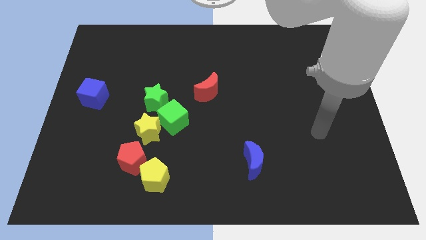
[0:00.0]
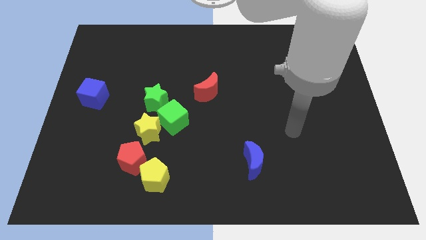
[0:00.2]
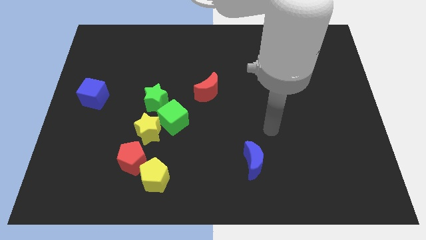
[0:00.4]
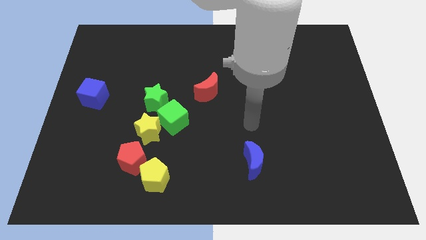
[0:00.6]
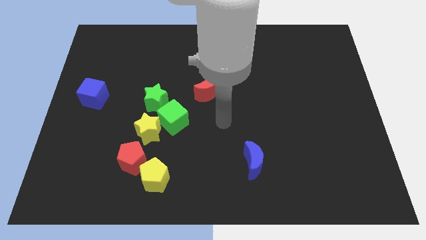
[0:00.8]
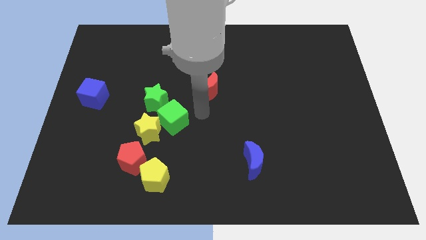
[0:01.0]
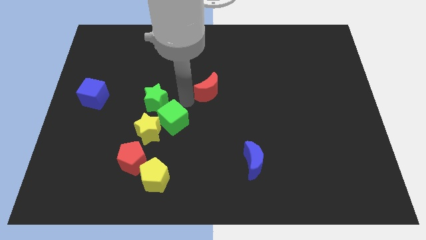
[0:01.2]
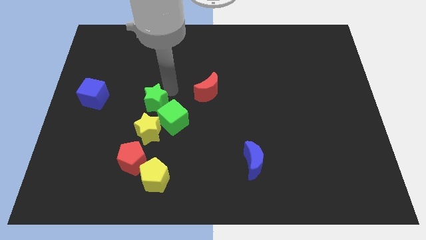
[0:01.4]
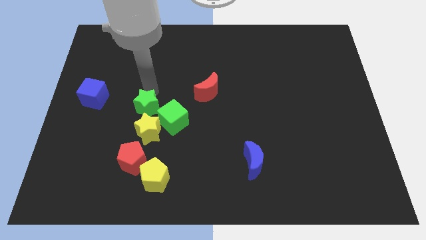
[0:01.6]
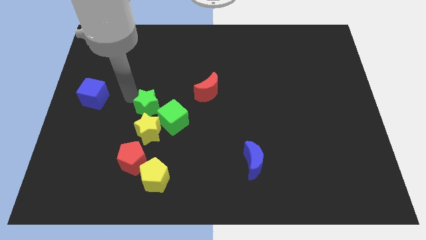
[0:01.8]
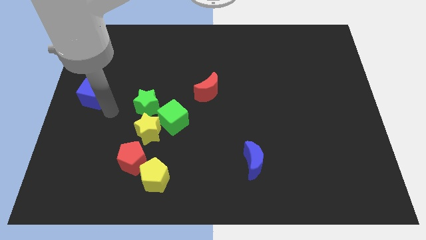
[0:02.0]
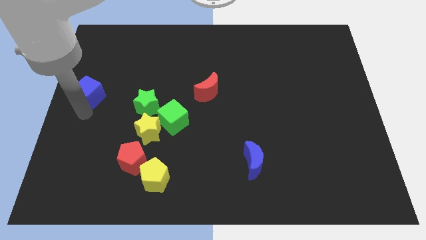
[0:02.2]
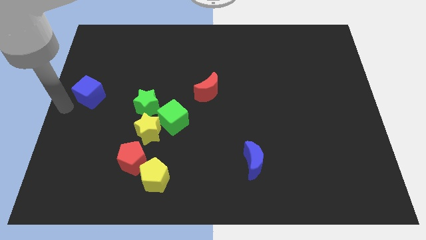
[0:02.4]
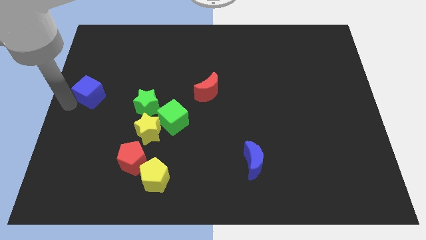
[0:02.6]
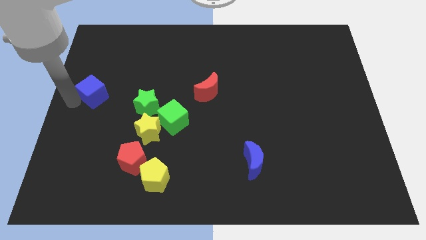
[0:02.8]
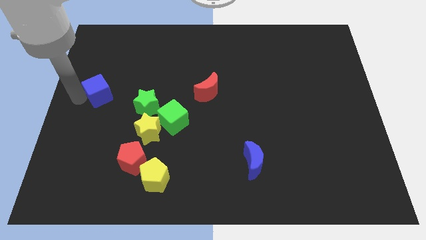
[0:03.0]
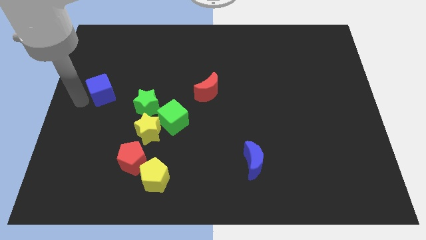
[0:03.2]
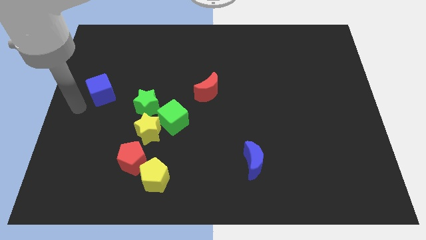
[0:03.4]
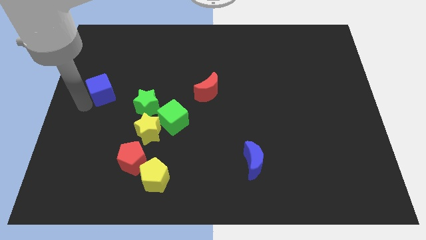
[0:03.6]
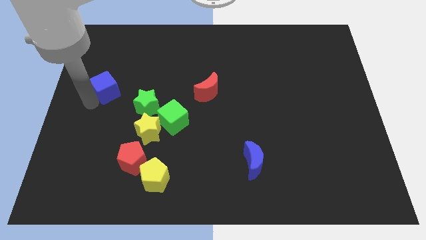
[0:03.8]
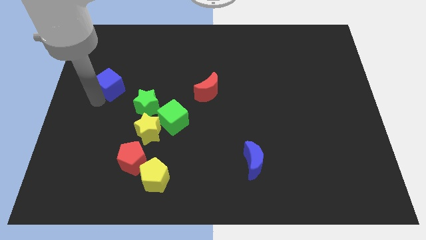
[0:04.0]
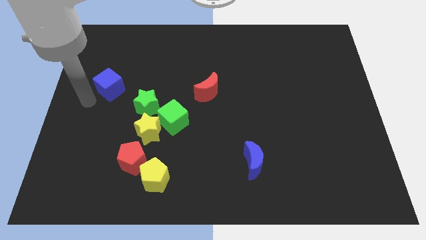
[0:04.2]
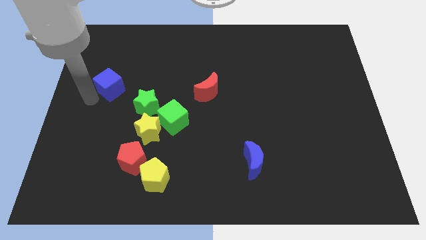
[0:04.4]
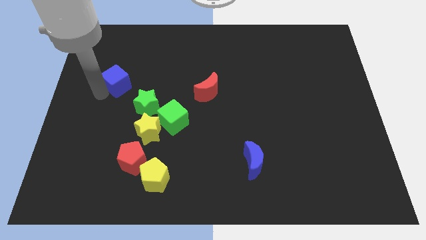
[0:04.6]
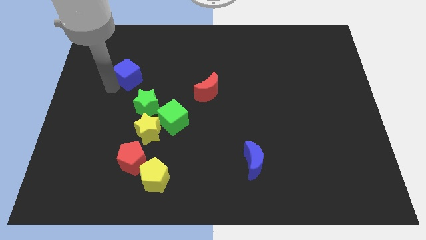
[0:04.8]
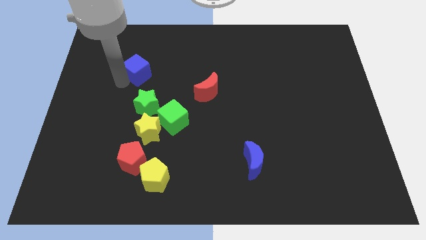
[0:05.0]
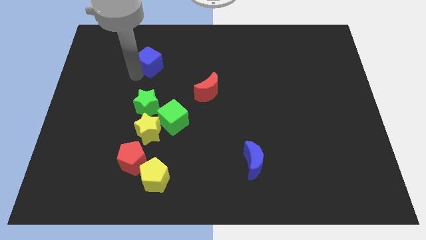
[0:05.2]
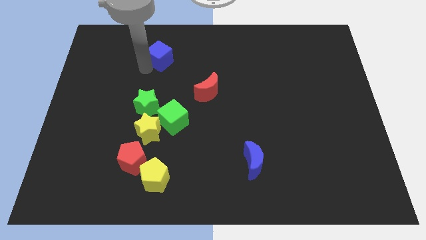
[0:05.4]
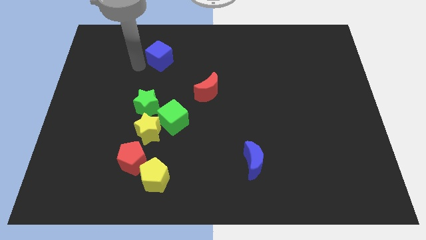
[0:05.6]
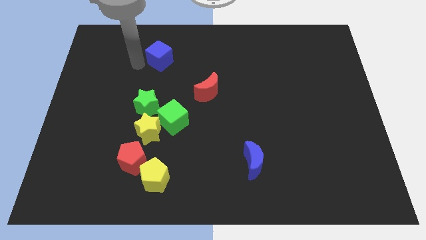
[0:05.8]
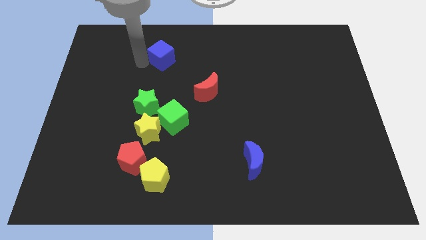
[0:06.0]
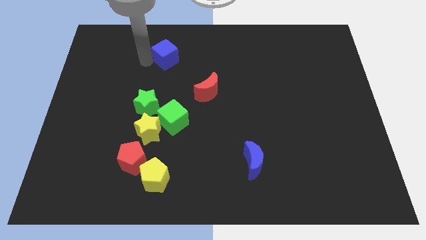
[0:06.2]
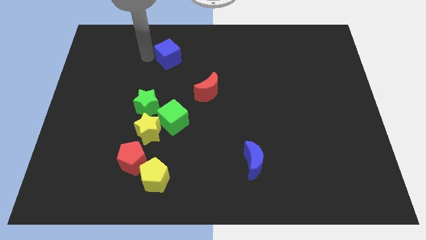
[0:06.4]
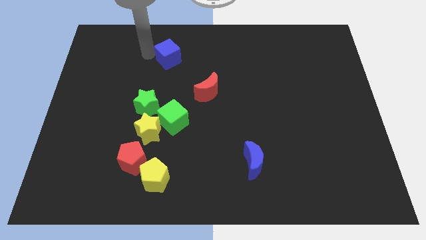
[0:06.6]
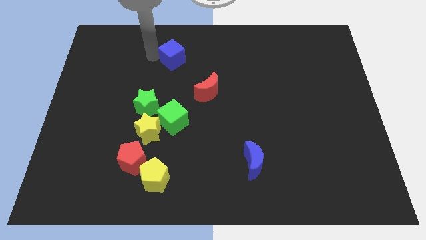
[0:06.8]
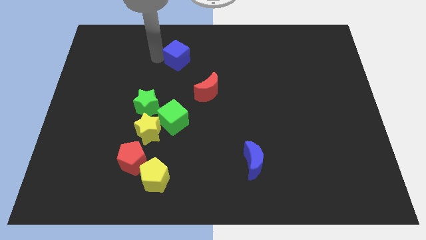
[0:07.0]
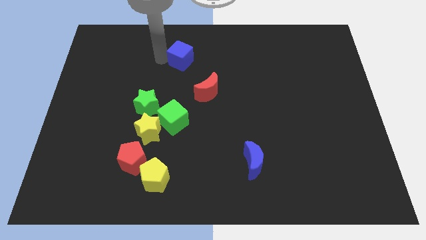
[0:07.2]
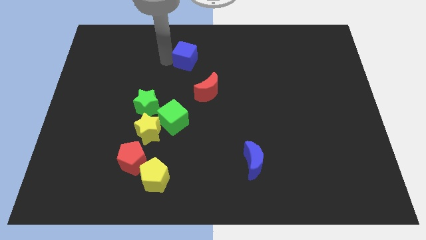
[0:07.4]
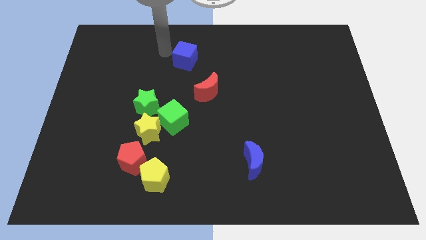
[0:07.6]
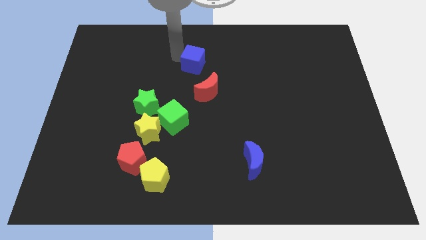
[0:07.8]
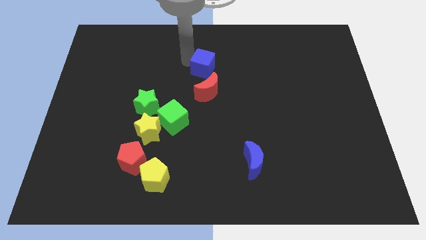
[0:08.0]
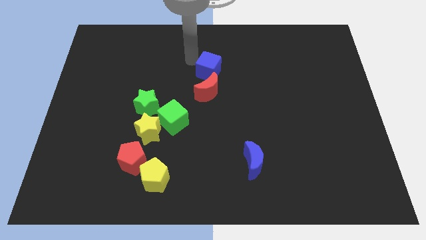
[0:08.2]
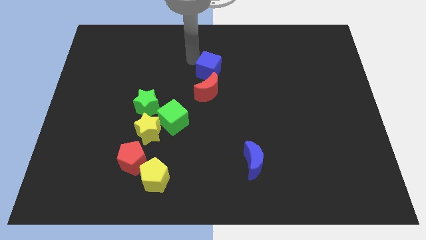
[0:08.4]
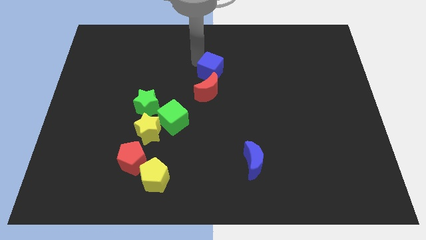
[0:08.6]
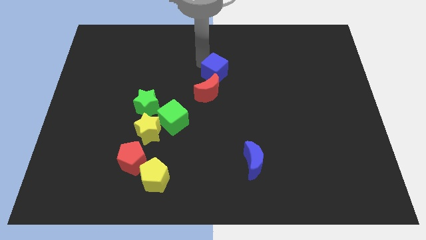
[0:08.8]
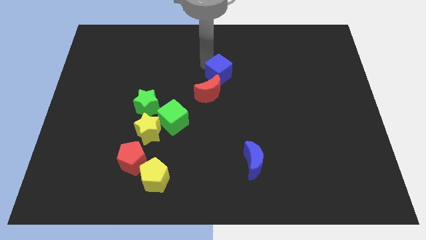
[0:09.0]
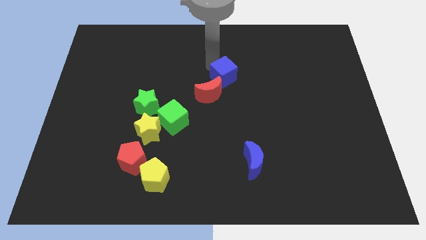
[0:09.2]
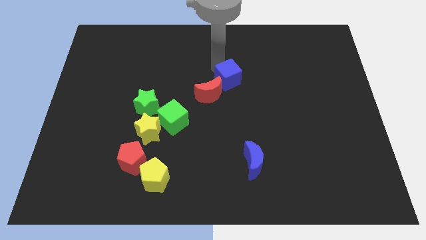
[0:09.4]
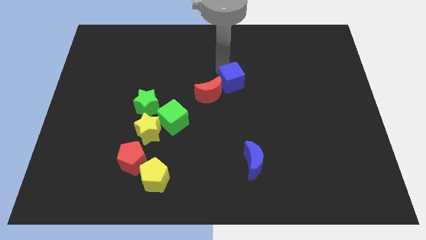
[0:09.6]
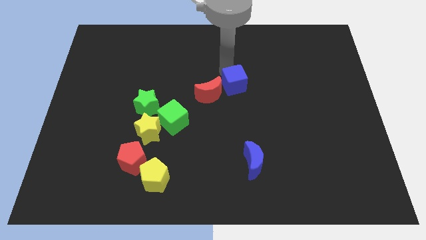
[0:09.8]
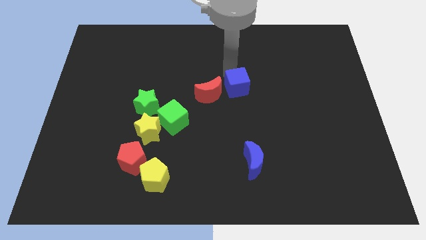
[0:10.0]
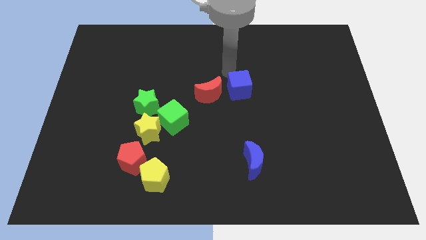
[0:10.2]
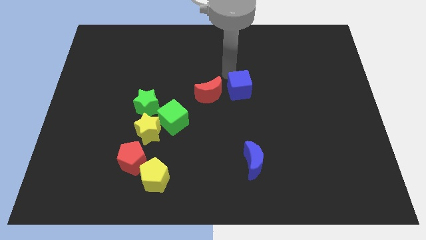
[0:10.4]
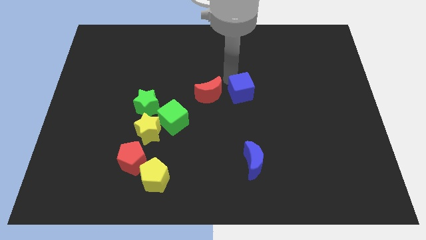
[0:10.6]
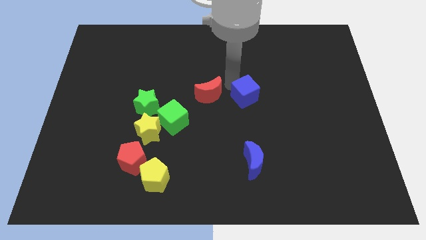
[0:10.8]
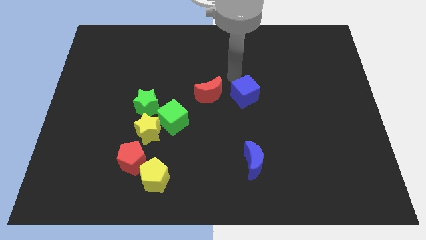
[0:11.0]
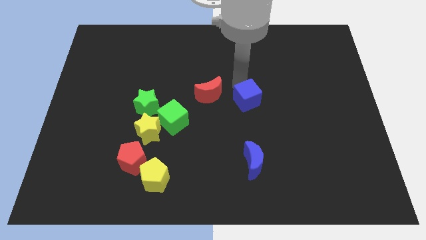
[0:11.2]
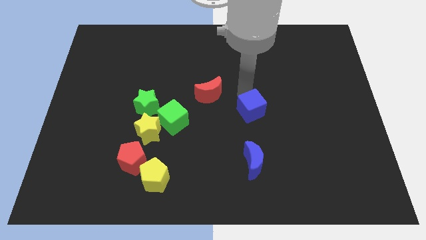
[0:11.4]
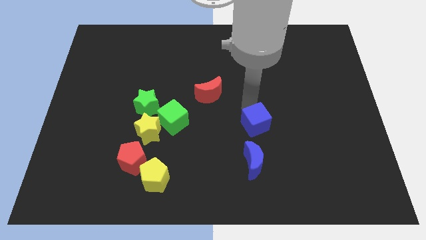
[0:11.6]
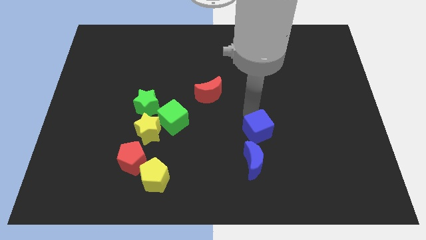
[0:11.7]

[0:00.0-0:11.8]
push the blue cube diagonally up and to the right of the blue moon

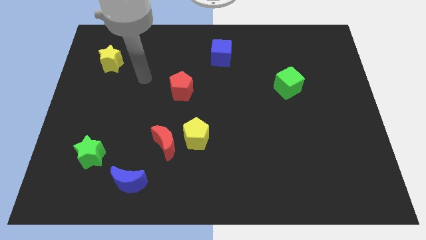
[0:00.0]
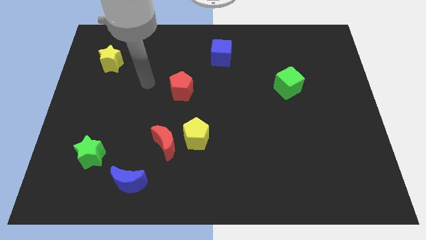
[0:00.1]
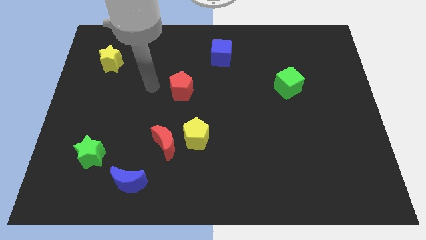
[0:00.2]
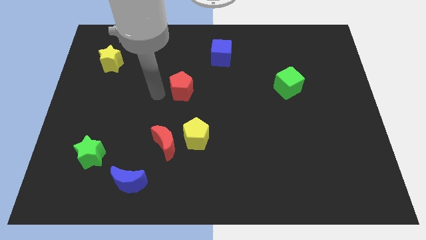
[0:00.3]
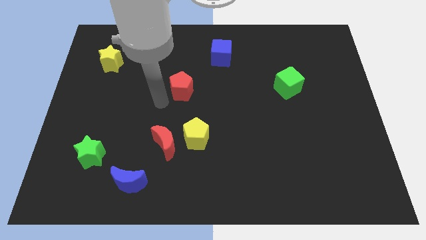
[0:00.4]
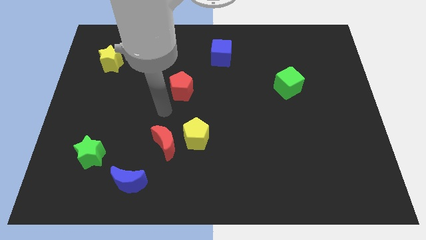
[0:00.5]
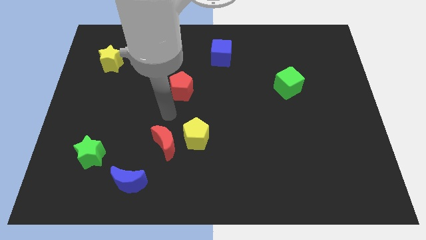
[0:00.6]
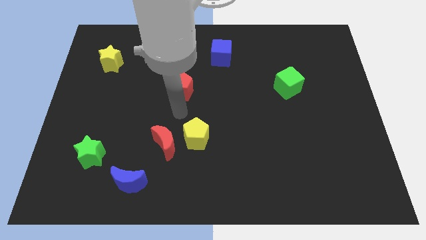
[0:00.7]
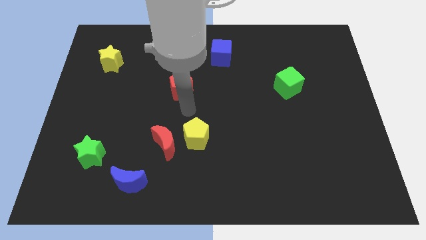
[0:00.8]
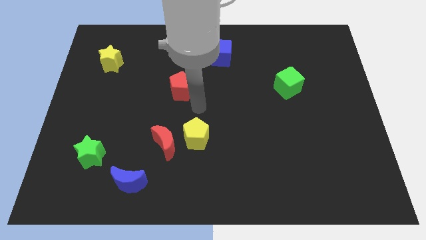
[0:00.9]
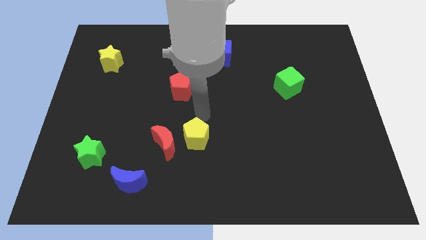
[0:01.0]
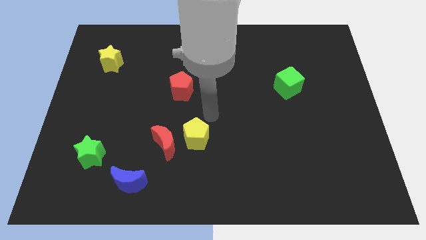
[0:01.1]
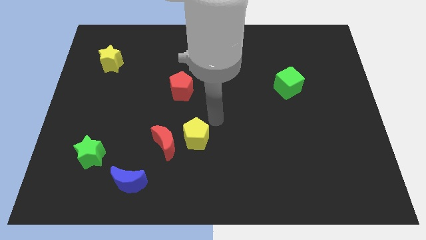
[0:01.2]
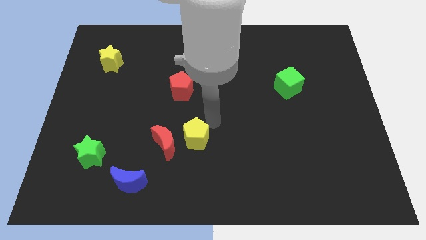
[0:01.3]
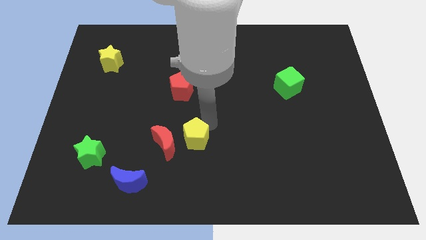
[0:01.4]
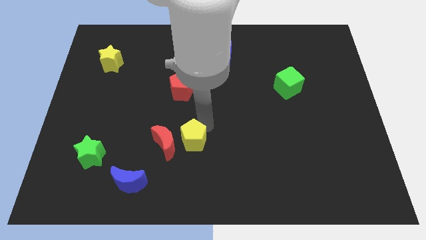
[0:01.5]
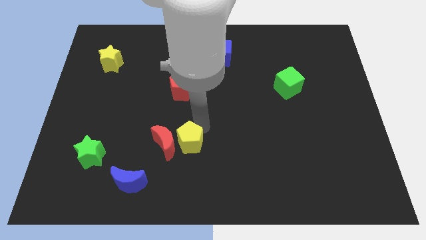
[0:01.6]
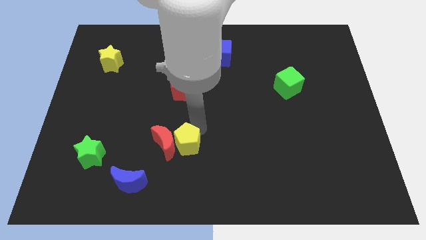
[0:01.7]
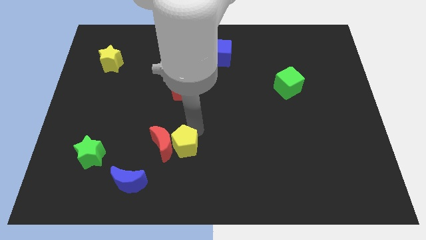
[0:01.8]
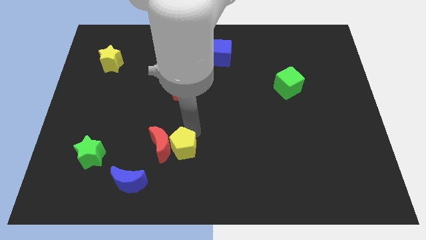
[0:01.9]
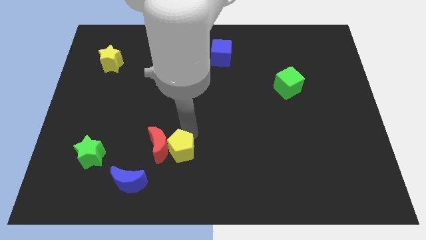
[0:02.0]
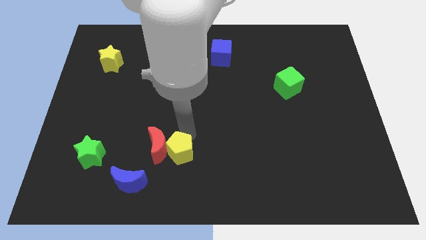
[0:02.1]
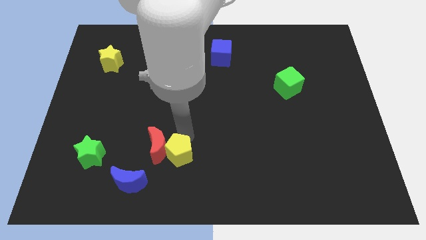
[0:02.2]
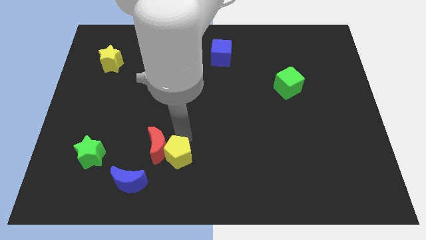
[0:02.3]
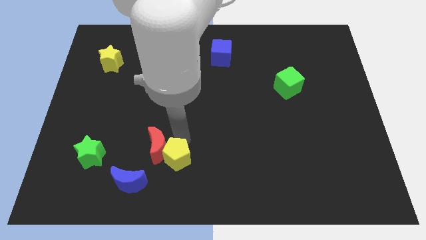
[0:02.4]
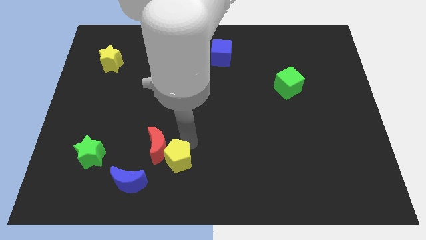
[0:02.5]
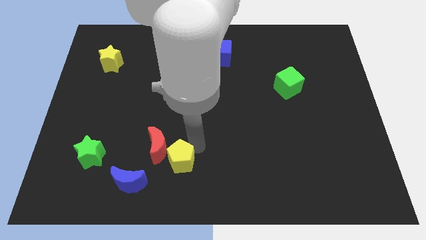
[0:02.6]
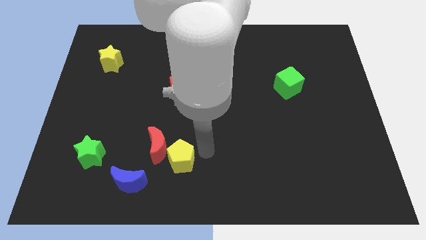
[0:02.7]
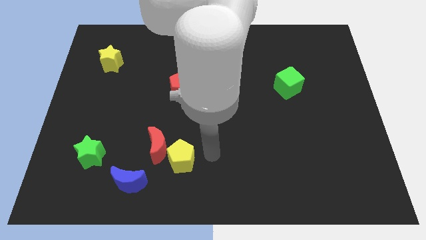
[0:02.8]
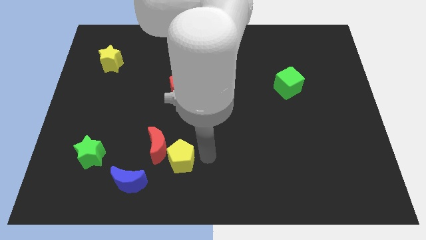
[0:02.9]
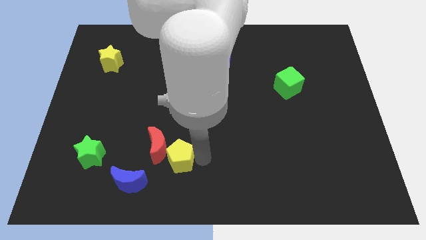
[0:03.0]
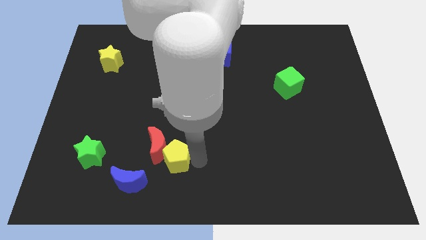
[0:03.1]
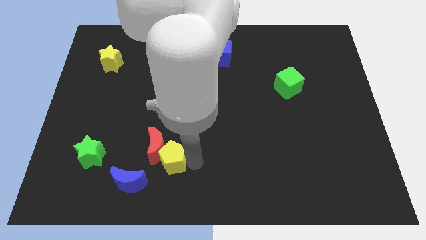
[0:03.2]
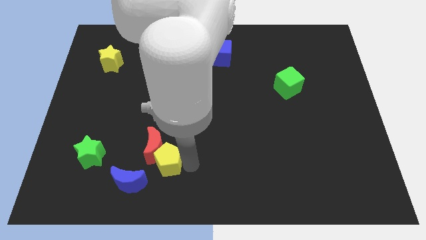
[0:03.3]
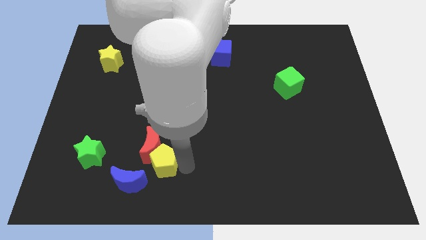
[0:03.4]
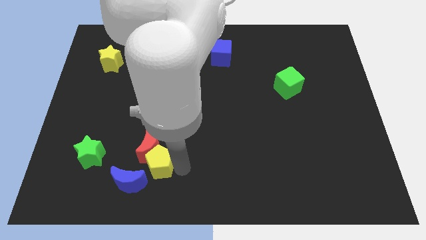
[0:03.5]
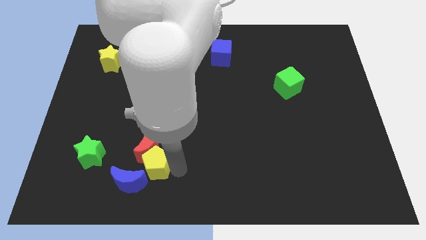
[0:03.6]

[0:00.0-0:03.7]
push the yellow pentagon diagonally down and to the left of the red moon
